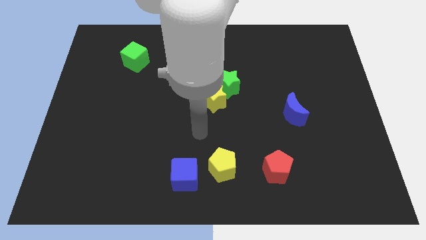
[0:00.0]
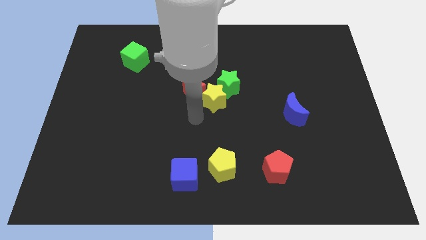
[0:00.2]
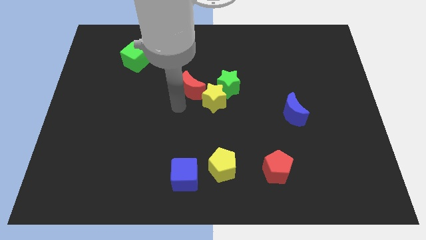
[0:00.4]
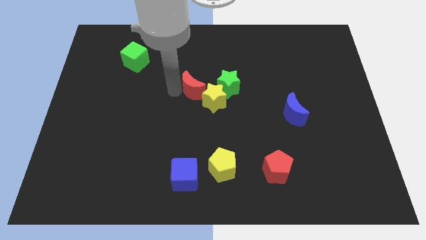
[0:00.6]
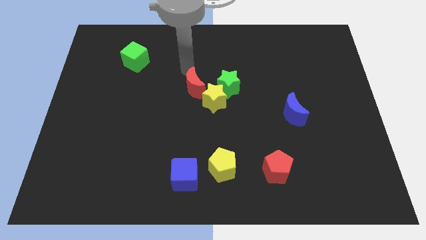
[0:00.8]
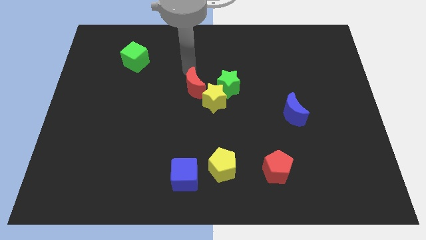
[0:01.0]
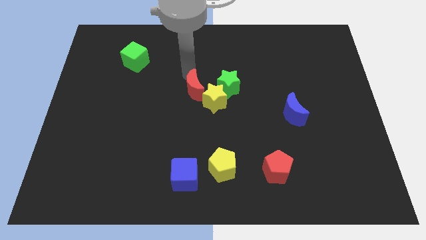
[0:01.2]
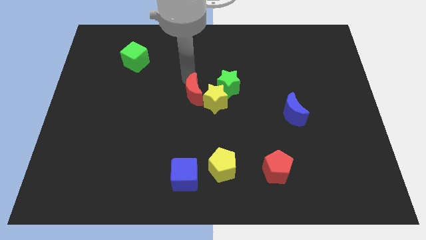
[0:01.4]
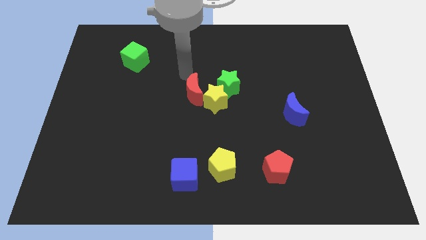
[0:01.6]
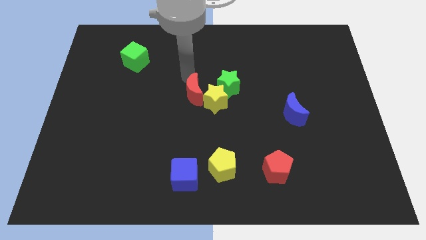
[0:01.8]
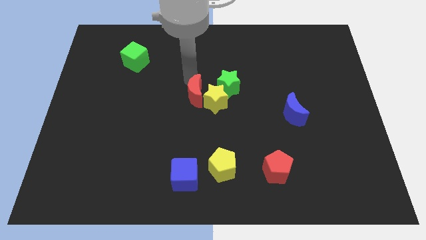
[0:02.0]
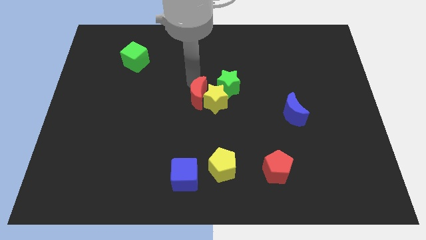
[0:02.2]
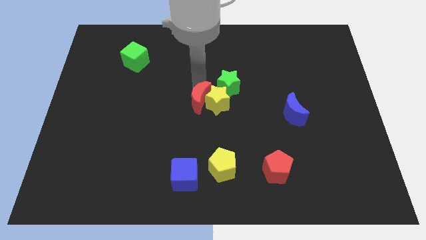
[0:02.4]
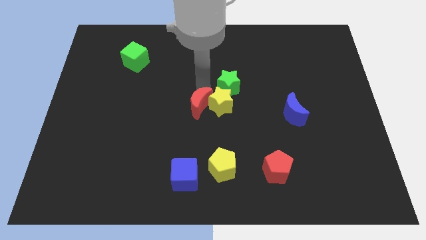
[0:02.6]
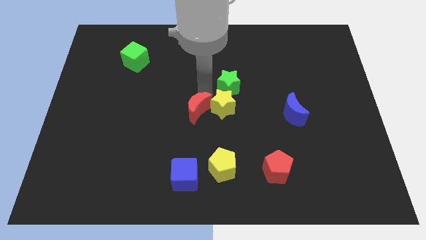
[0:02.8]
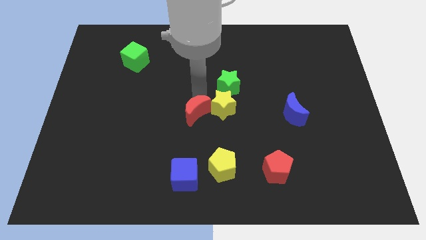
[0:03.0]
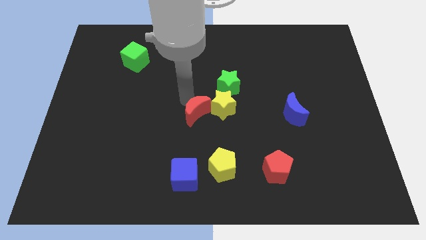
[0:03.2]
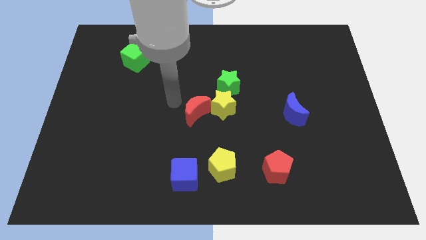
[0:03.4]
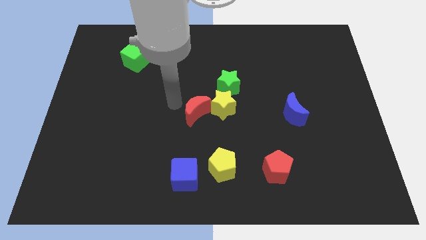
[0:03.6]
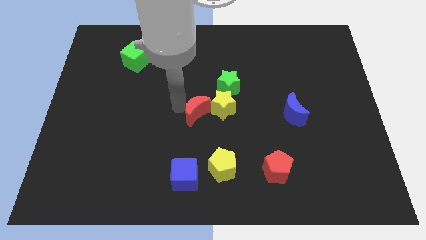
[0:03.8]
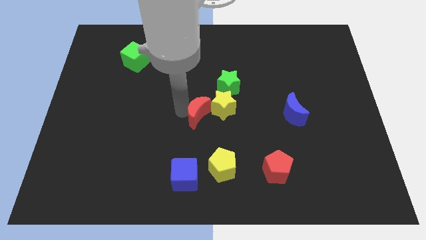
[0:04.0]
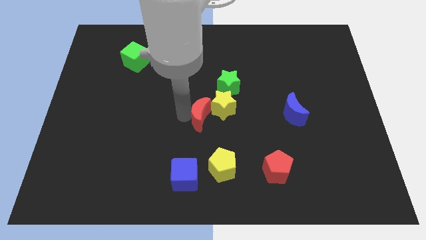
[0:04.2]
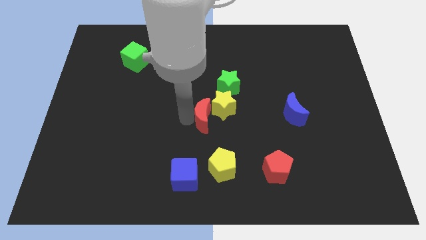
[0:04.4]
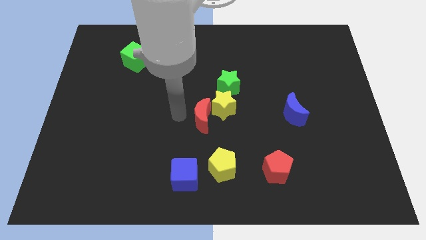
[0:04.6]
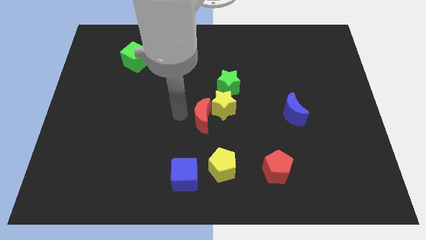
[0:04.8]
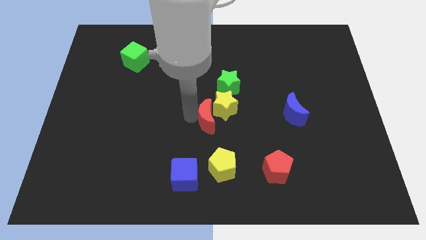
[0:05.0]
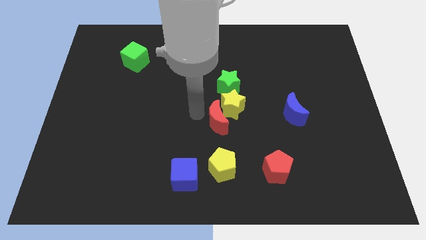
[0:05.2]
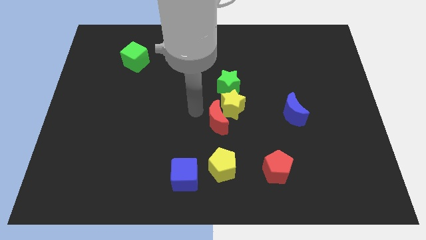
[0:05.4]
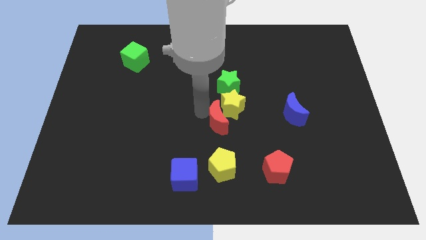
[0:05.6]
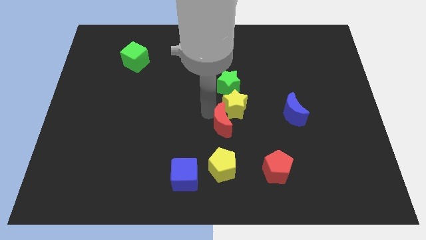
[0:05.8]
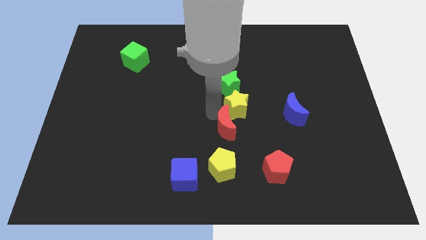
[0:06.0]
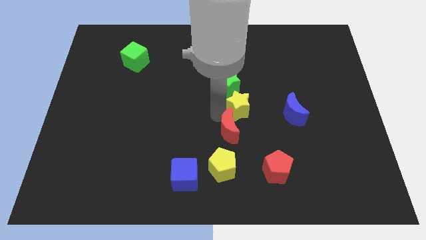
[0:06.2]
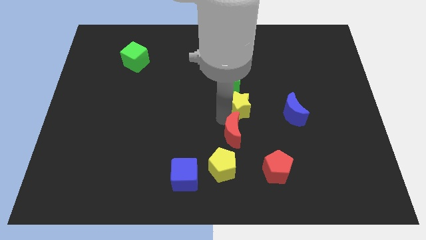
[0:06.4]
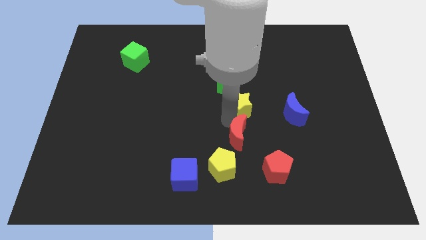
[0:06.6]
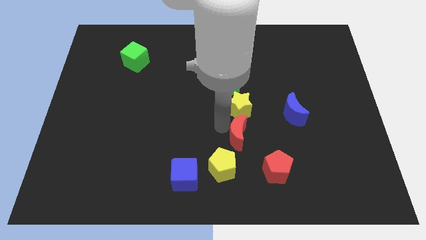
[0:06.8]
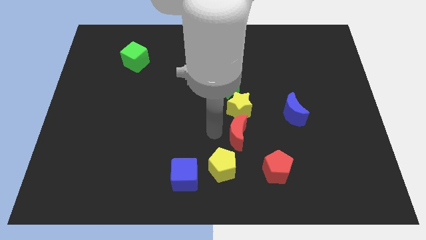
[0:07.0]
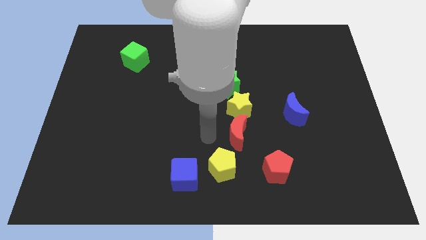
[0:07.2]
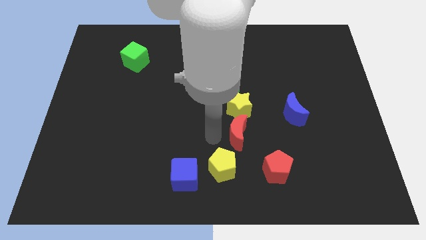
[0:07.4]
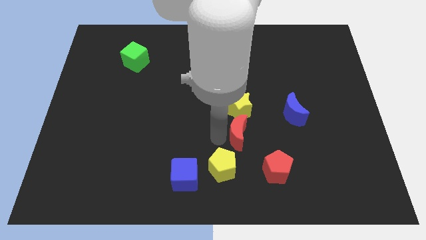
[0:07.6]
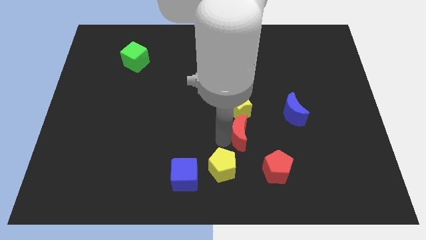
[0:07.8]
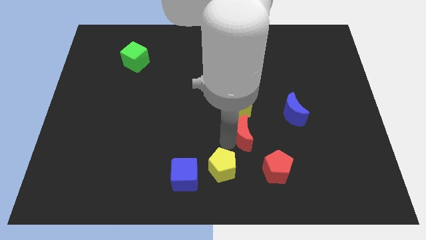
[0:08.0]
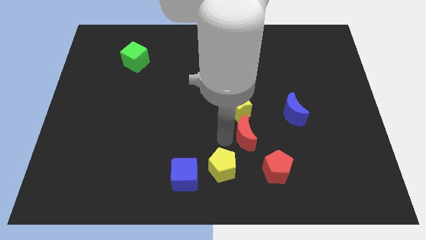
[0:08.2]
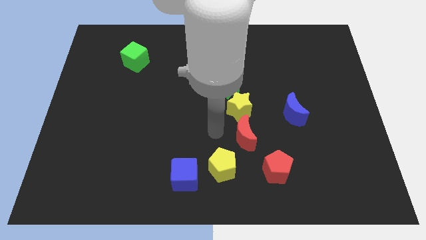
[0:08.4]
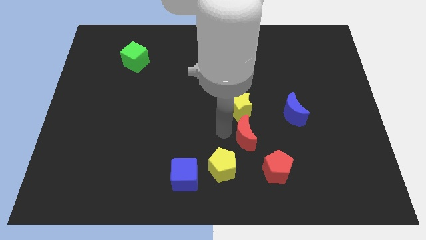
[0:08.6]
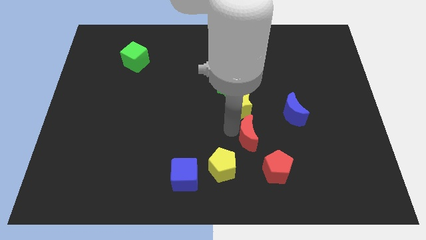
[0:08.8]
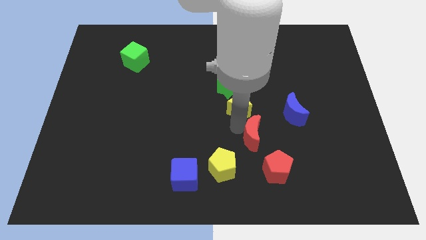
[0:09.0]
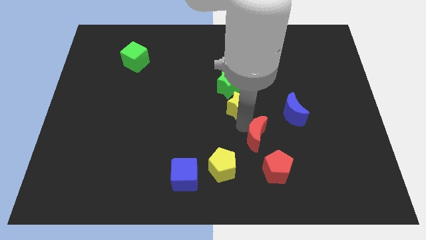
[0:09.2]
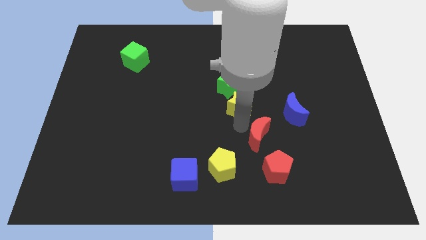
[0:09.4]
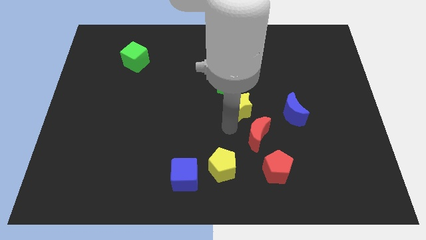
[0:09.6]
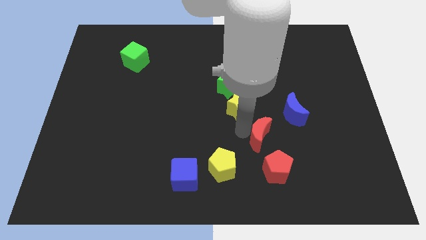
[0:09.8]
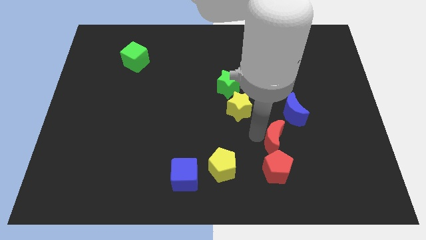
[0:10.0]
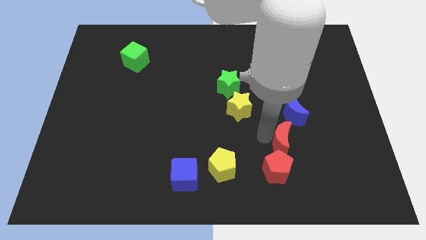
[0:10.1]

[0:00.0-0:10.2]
push the red moon to the bottom side of the blue moon

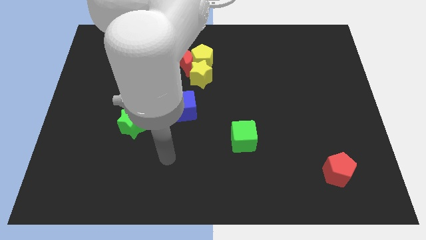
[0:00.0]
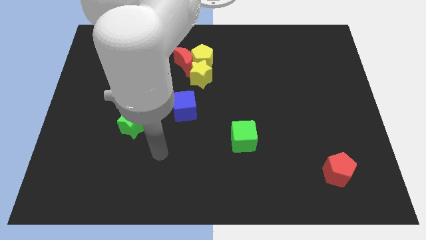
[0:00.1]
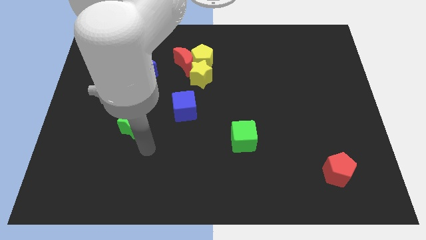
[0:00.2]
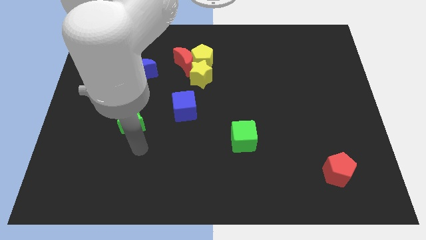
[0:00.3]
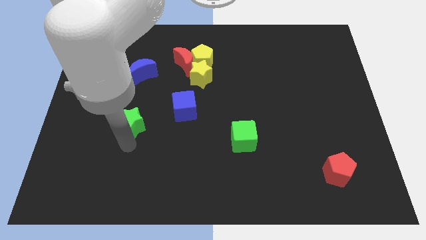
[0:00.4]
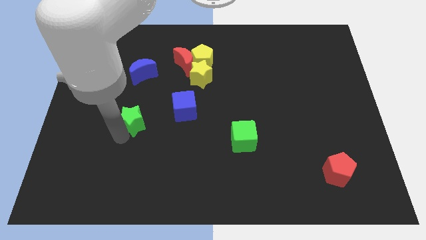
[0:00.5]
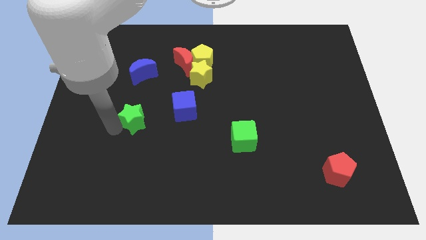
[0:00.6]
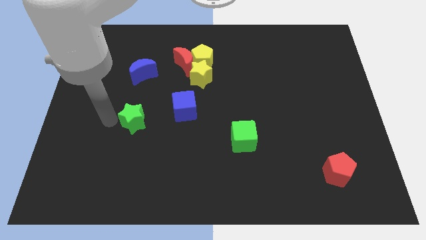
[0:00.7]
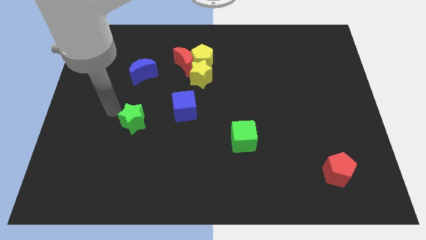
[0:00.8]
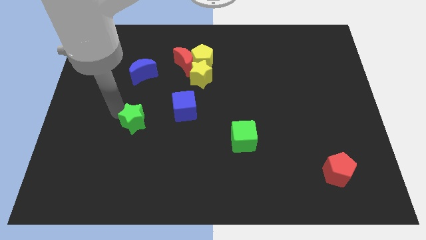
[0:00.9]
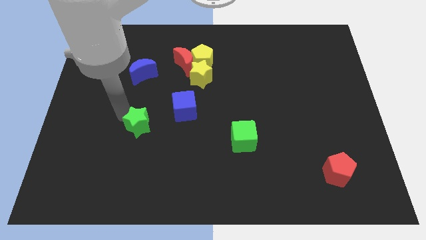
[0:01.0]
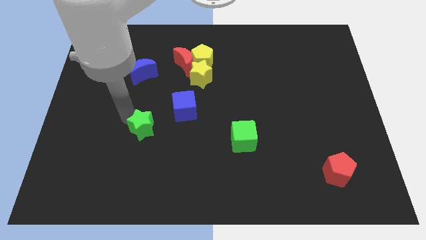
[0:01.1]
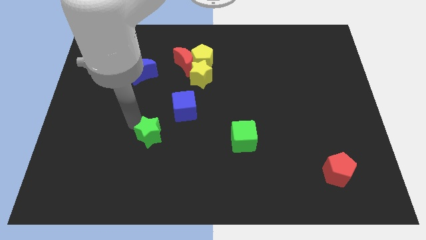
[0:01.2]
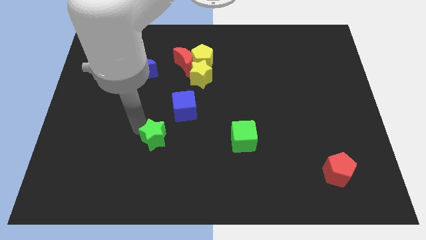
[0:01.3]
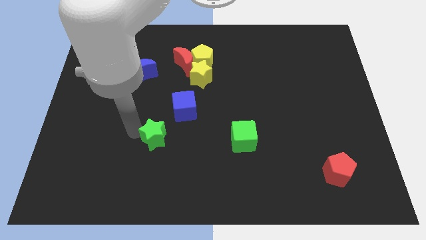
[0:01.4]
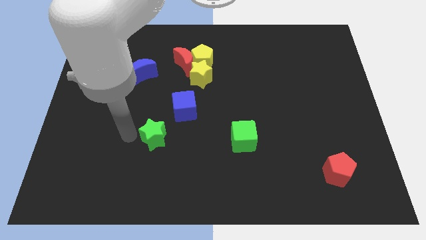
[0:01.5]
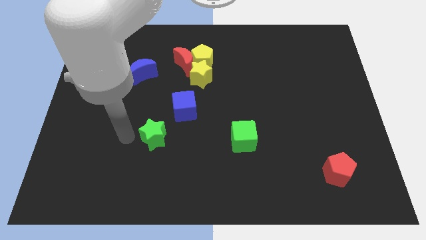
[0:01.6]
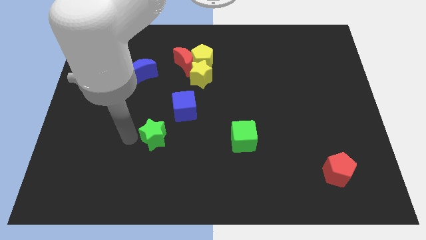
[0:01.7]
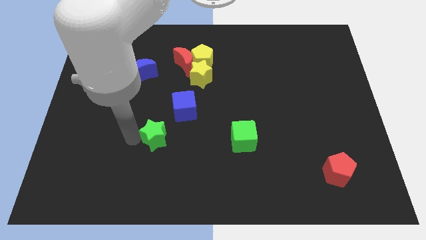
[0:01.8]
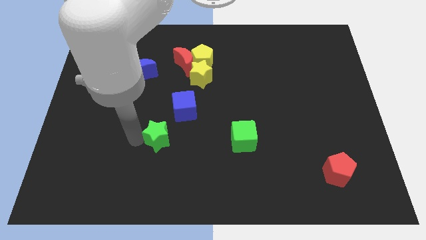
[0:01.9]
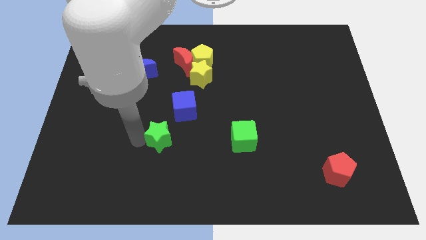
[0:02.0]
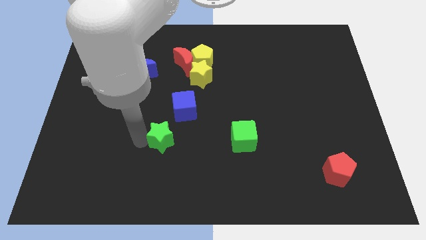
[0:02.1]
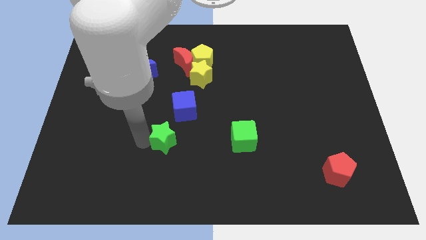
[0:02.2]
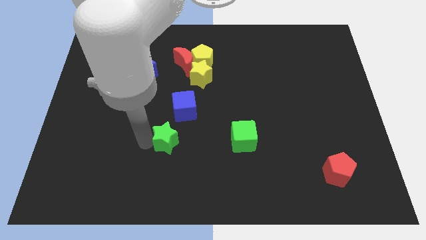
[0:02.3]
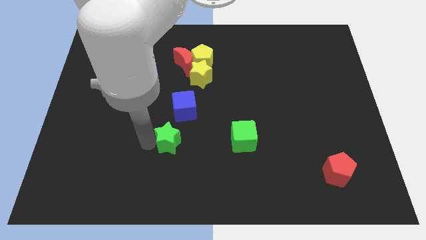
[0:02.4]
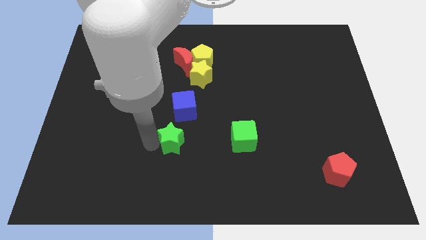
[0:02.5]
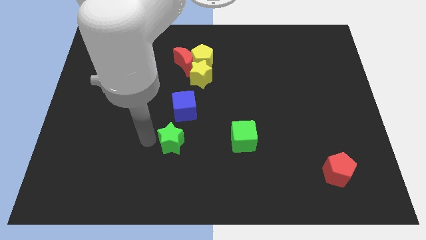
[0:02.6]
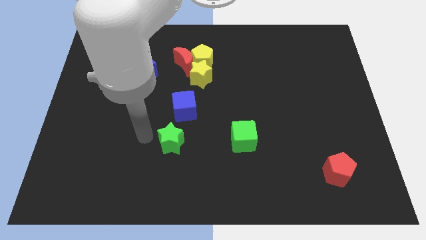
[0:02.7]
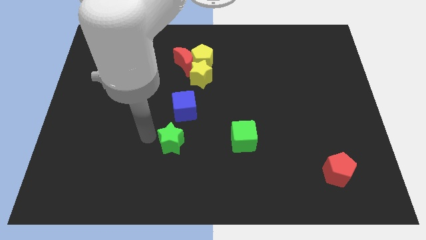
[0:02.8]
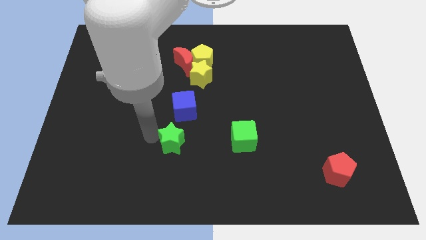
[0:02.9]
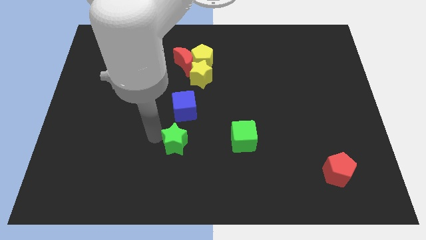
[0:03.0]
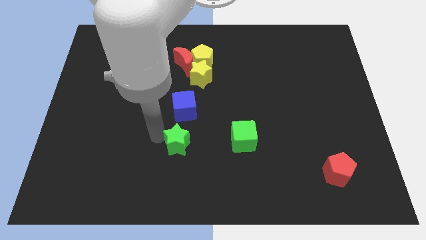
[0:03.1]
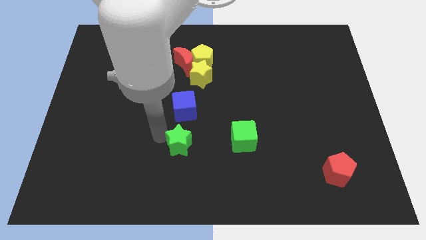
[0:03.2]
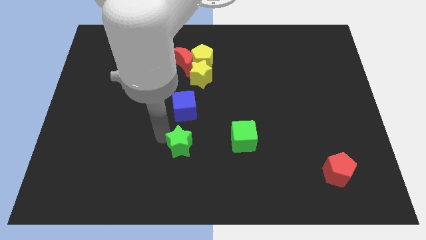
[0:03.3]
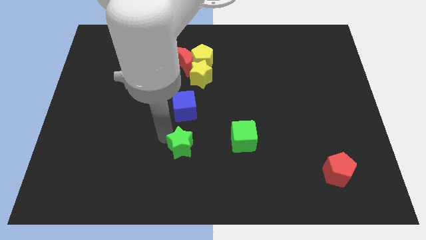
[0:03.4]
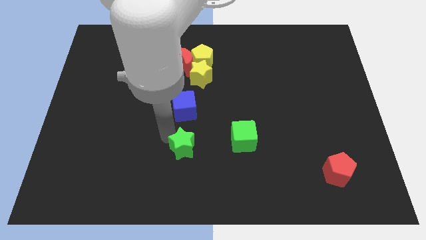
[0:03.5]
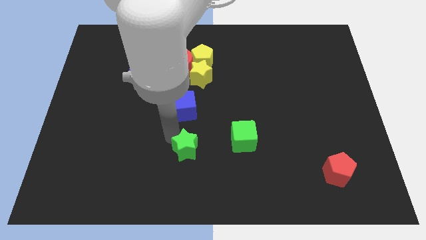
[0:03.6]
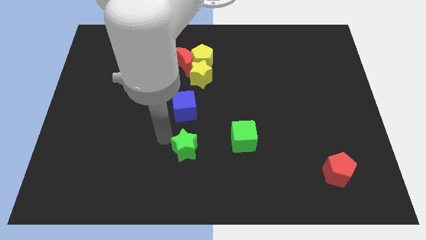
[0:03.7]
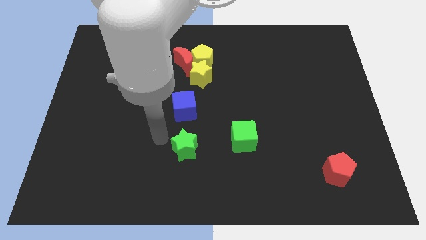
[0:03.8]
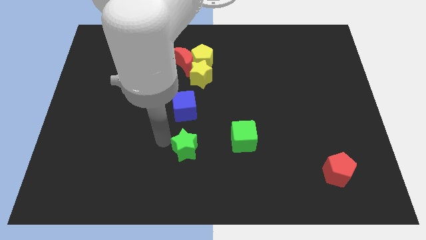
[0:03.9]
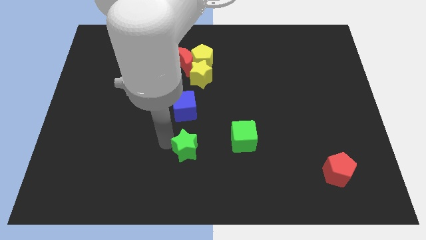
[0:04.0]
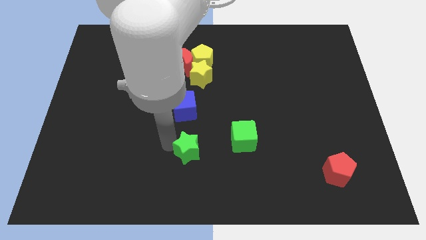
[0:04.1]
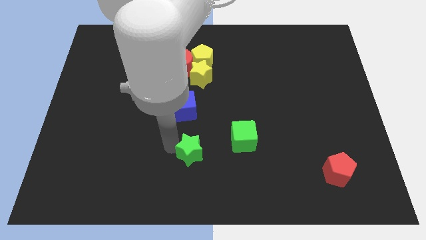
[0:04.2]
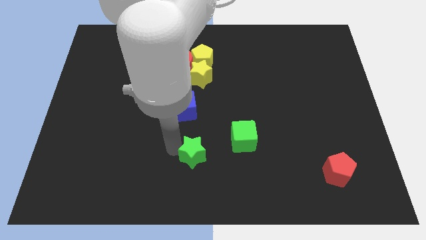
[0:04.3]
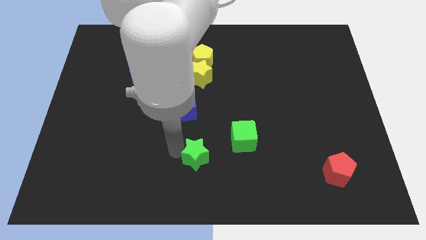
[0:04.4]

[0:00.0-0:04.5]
slide the green star to the bottom left side of the green cube
